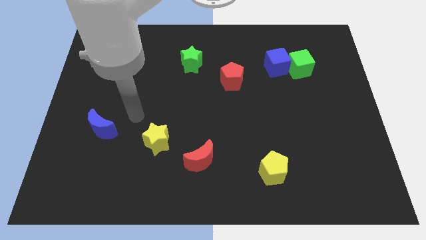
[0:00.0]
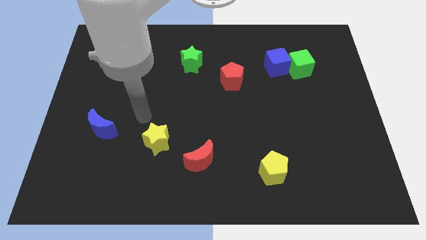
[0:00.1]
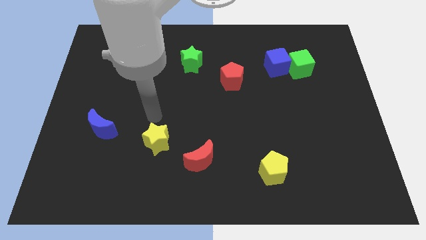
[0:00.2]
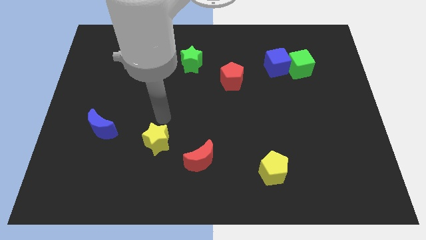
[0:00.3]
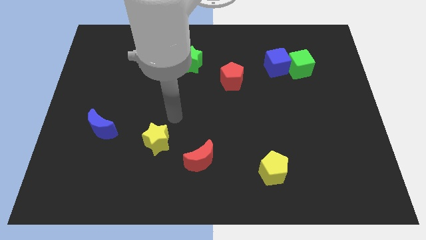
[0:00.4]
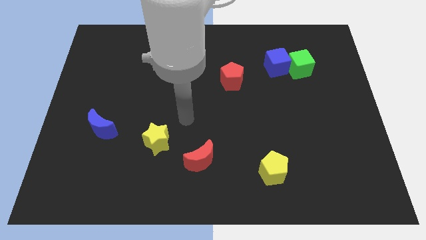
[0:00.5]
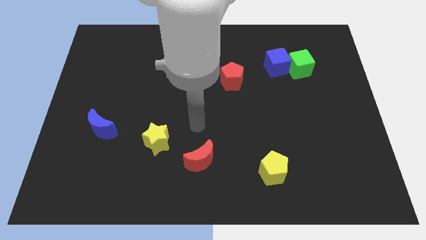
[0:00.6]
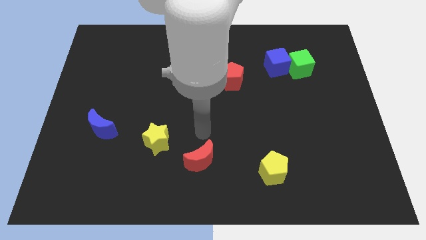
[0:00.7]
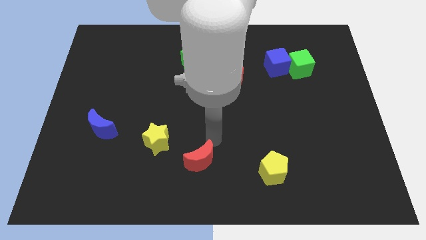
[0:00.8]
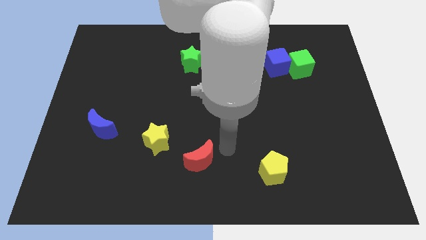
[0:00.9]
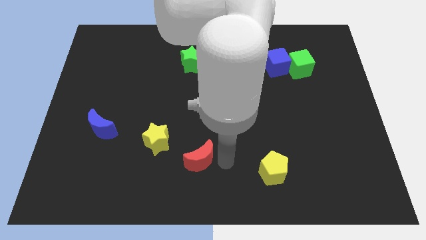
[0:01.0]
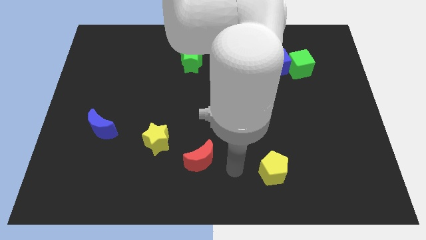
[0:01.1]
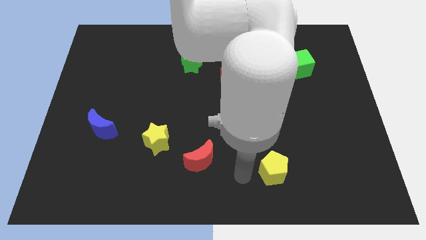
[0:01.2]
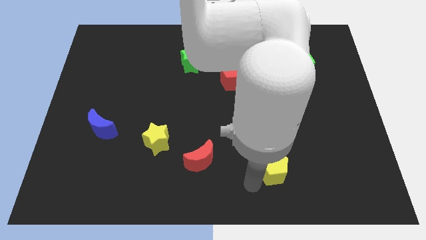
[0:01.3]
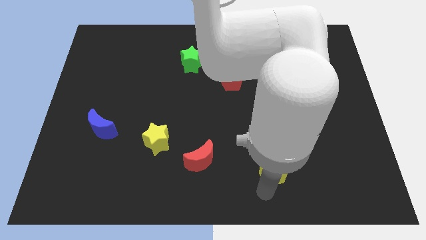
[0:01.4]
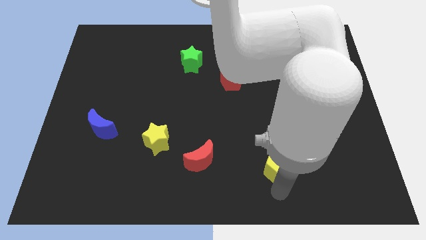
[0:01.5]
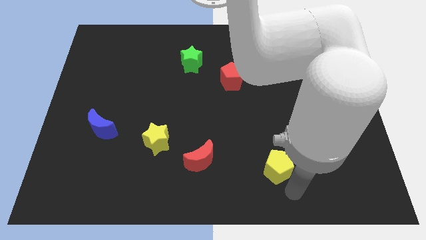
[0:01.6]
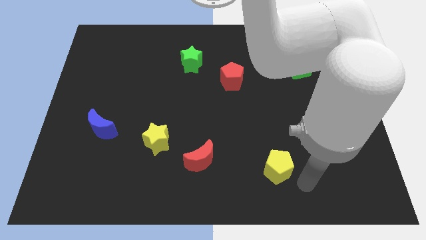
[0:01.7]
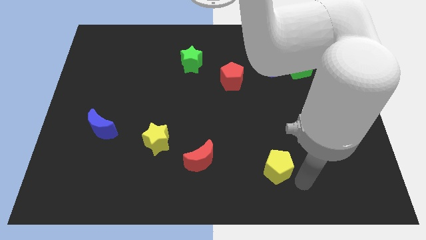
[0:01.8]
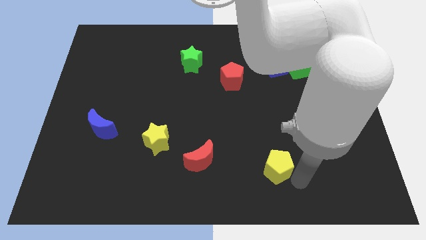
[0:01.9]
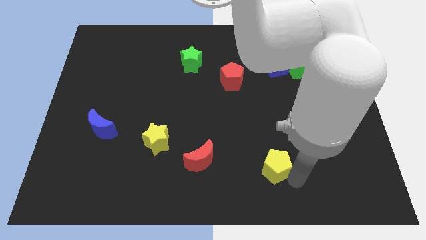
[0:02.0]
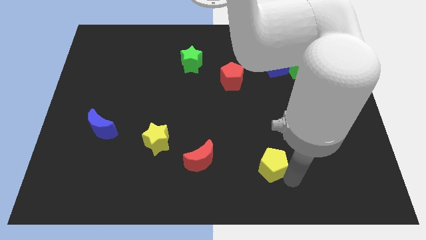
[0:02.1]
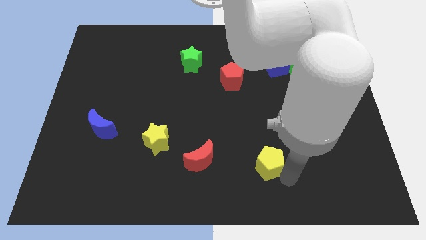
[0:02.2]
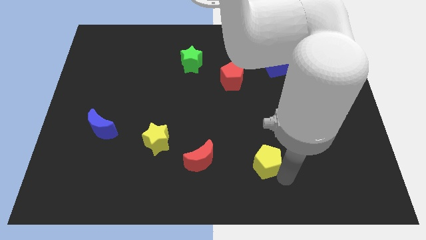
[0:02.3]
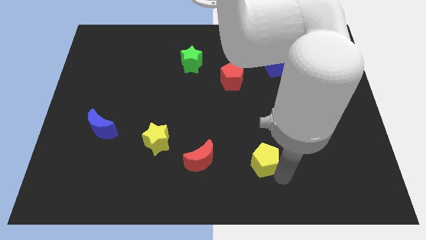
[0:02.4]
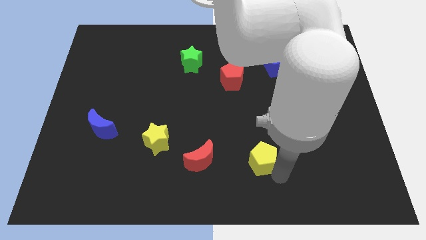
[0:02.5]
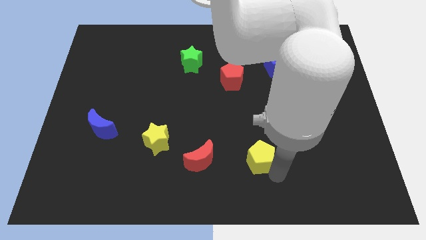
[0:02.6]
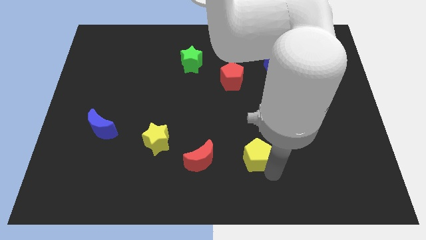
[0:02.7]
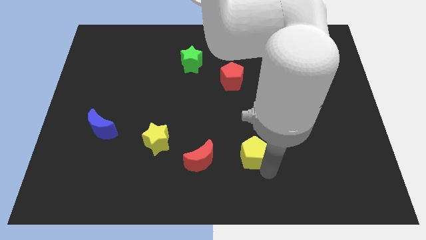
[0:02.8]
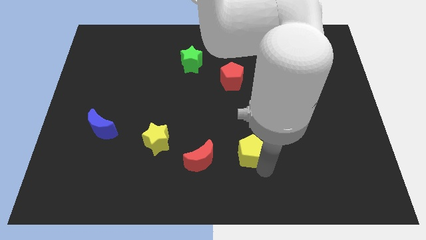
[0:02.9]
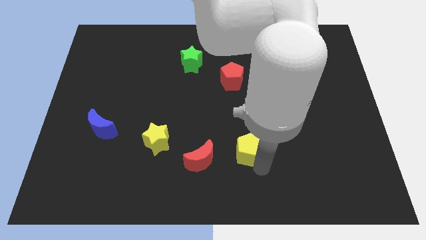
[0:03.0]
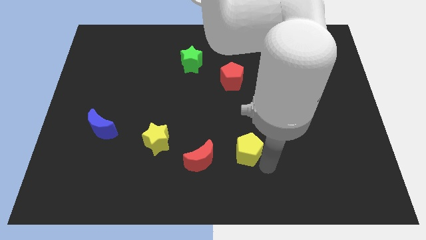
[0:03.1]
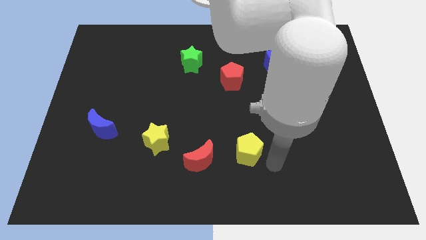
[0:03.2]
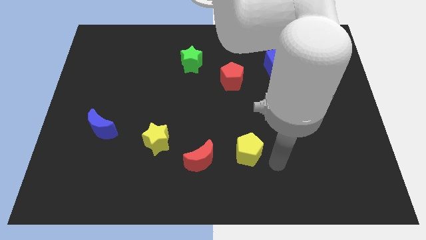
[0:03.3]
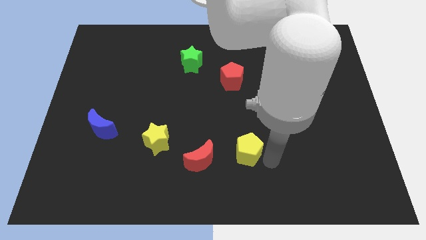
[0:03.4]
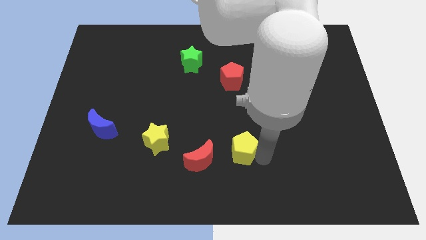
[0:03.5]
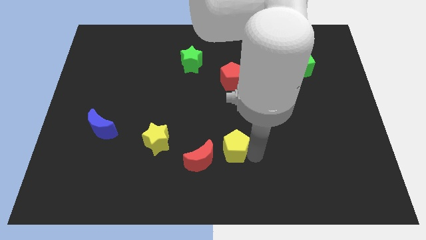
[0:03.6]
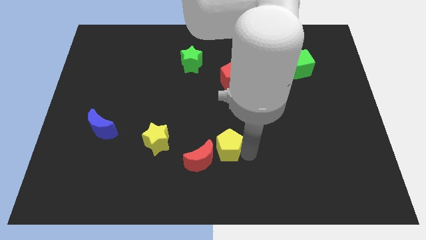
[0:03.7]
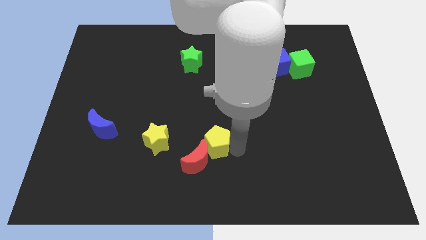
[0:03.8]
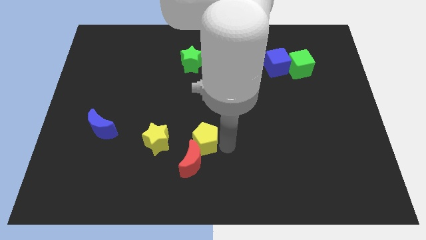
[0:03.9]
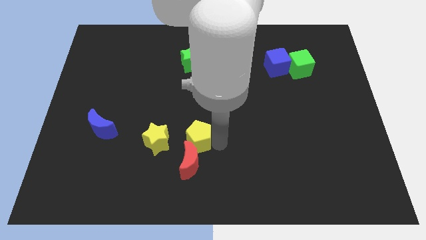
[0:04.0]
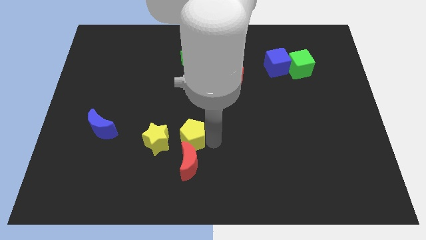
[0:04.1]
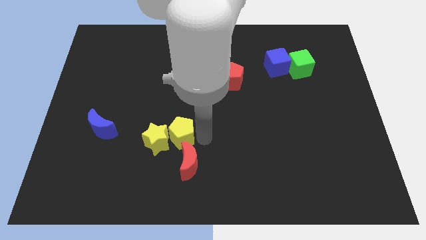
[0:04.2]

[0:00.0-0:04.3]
put the yellow pentagon towards the yellow star

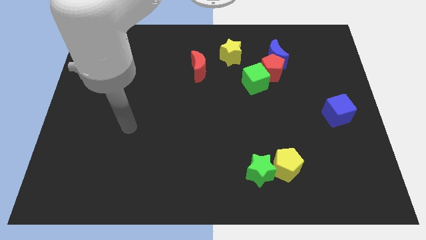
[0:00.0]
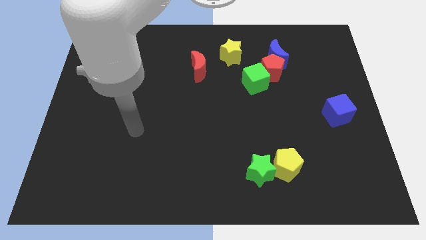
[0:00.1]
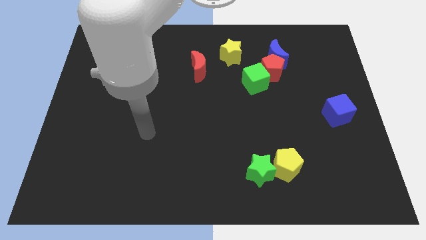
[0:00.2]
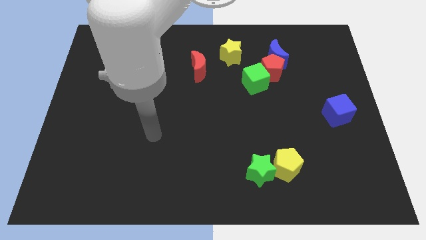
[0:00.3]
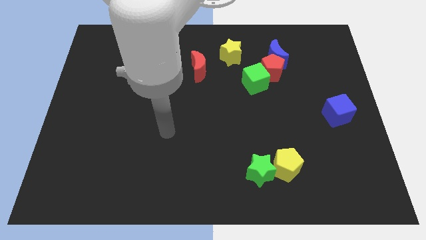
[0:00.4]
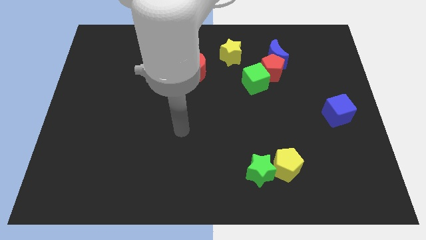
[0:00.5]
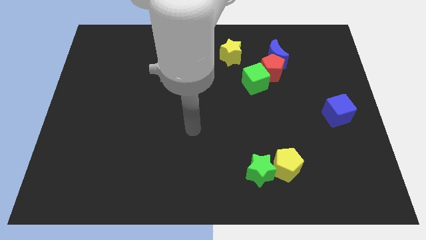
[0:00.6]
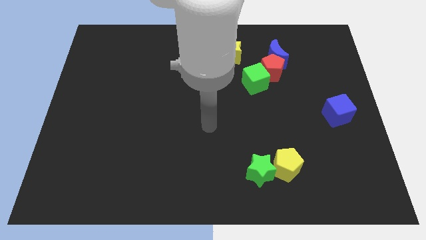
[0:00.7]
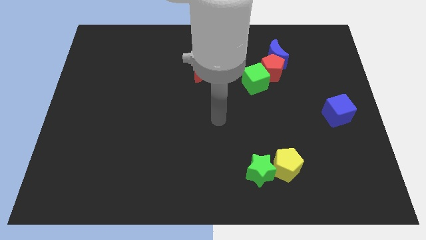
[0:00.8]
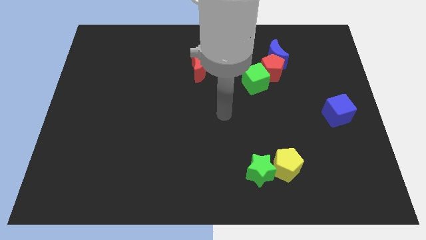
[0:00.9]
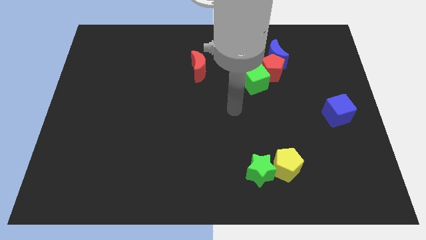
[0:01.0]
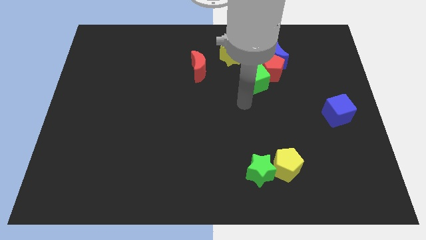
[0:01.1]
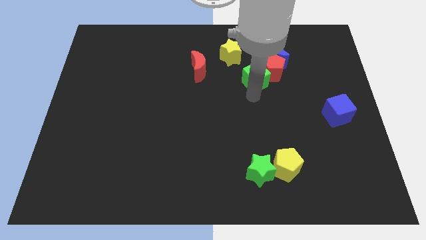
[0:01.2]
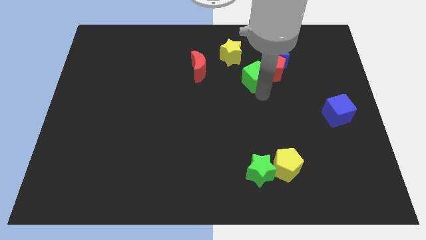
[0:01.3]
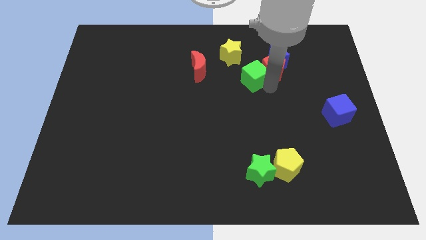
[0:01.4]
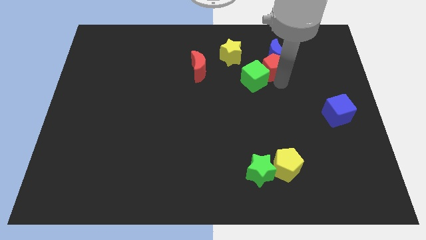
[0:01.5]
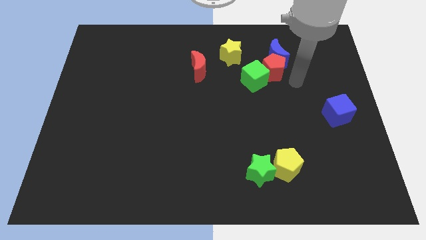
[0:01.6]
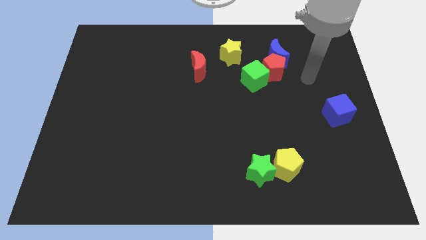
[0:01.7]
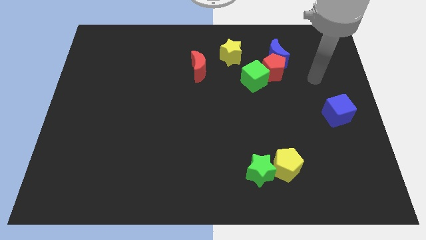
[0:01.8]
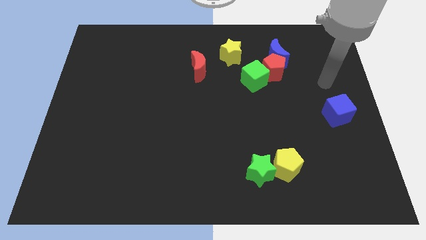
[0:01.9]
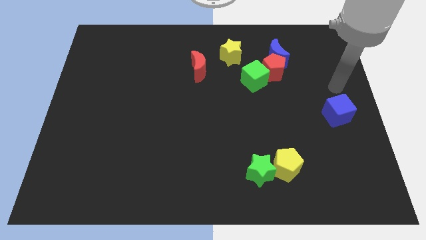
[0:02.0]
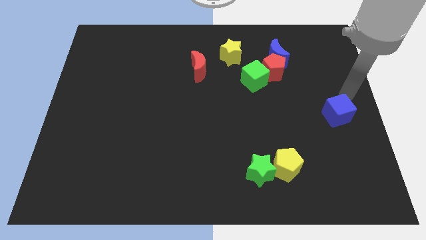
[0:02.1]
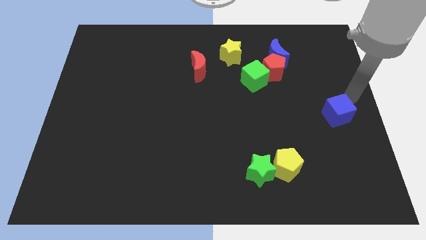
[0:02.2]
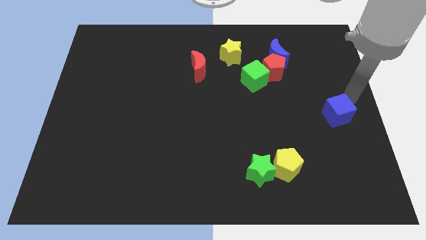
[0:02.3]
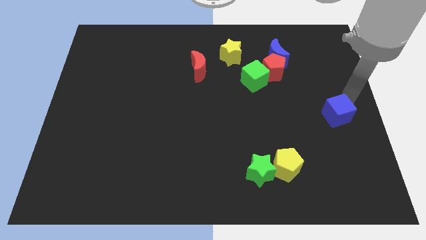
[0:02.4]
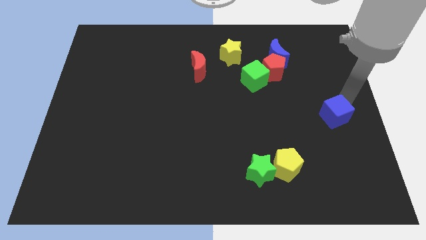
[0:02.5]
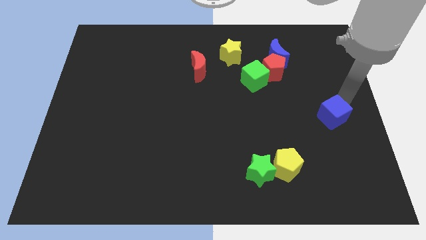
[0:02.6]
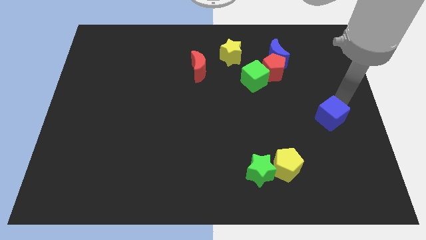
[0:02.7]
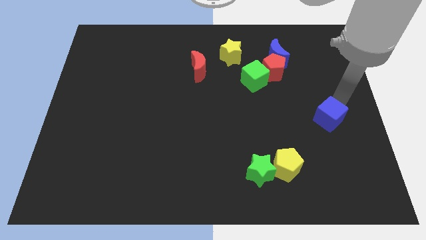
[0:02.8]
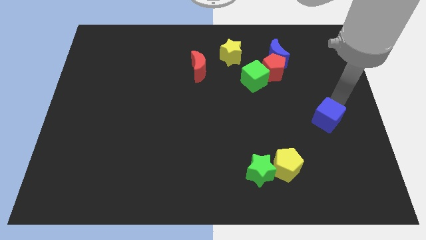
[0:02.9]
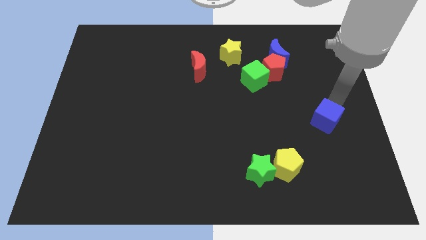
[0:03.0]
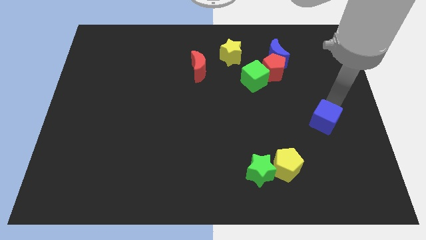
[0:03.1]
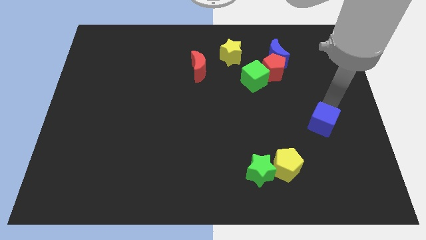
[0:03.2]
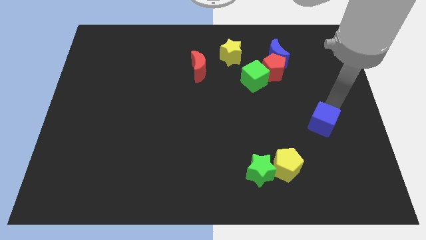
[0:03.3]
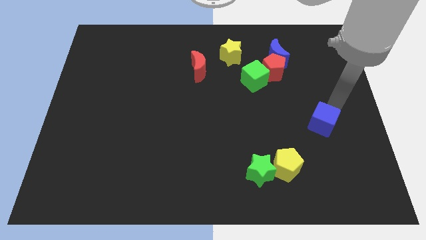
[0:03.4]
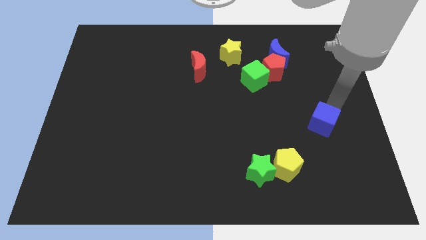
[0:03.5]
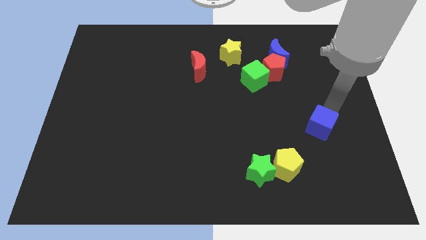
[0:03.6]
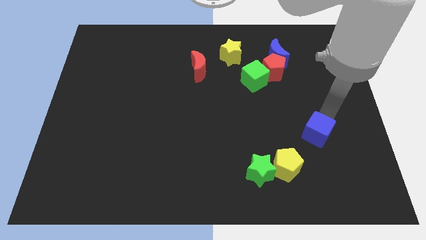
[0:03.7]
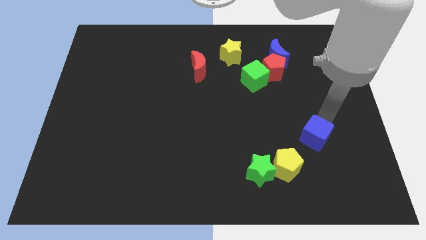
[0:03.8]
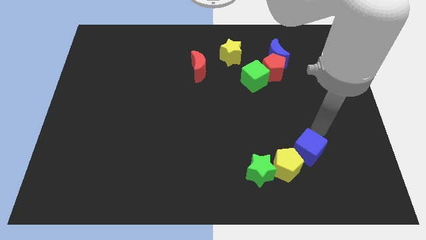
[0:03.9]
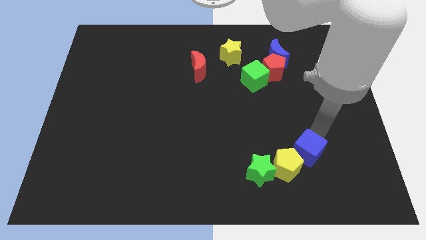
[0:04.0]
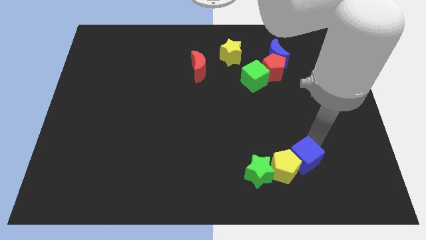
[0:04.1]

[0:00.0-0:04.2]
slide the blue cube to the yellow pentagon
